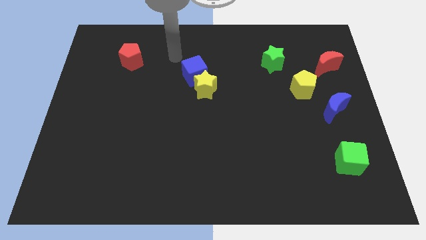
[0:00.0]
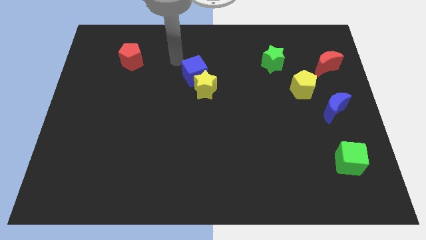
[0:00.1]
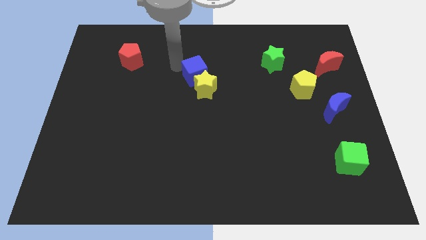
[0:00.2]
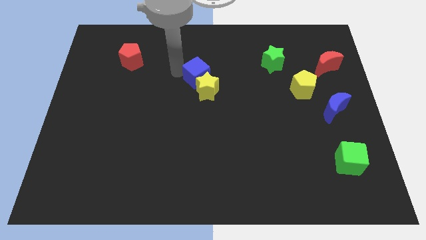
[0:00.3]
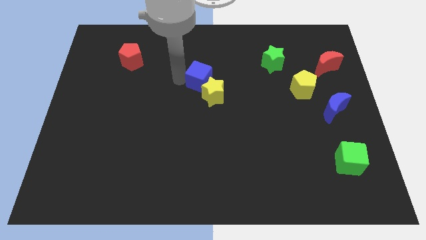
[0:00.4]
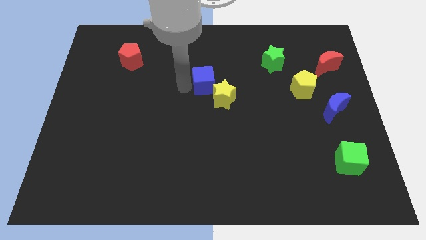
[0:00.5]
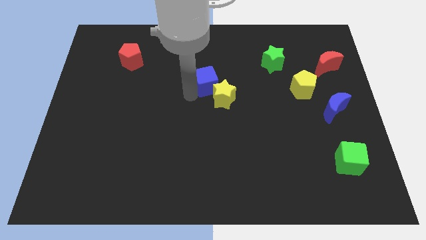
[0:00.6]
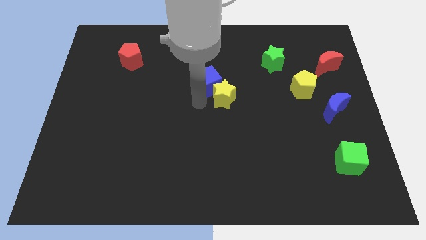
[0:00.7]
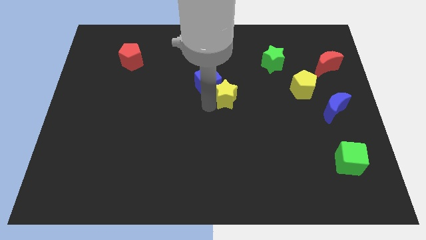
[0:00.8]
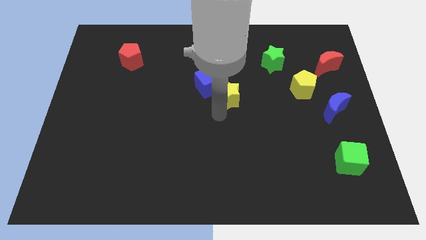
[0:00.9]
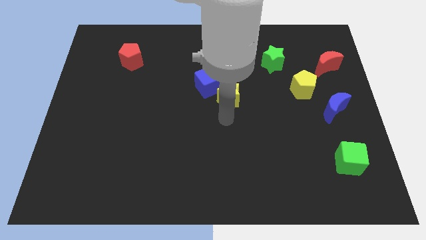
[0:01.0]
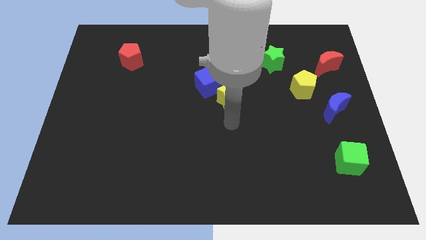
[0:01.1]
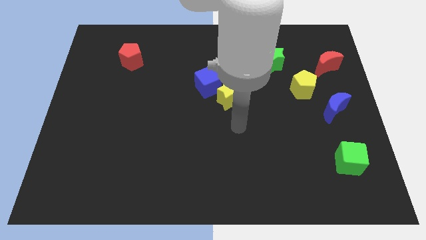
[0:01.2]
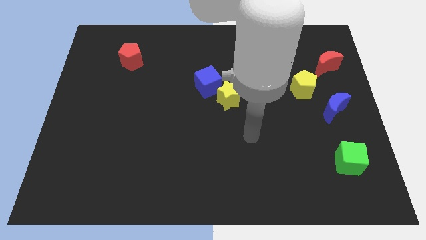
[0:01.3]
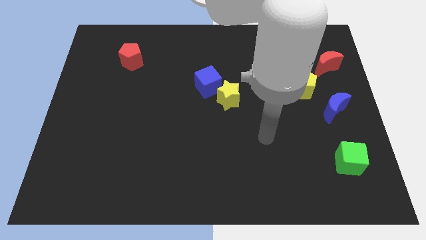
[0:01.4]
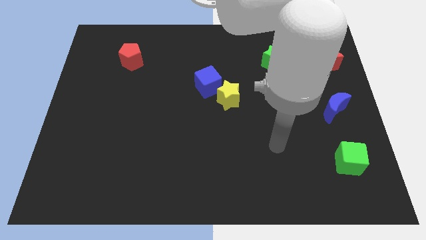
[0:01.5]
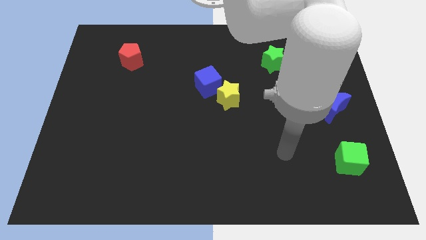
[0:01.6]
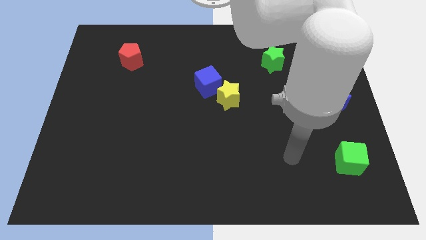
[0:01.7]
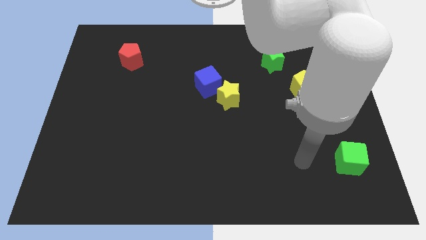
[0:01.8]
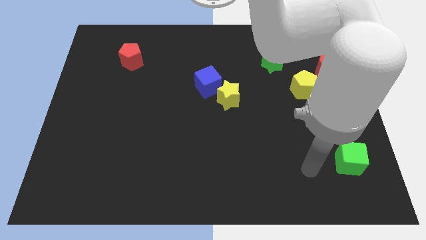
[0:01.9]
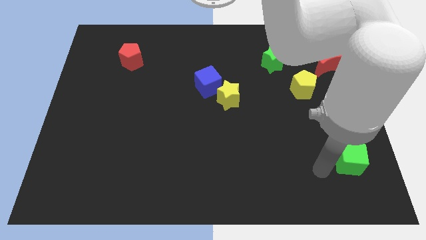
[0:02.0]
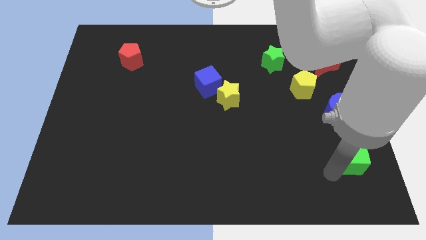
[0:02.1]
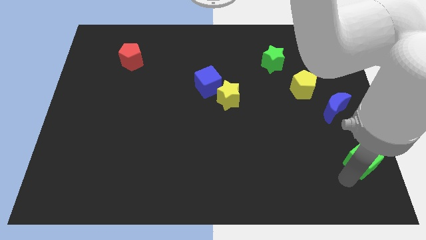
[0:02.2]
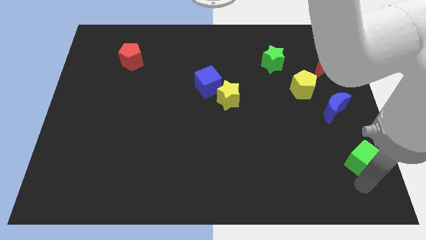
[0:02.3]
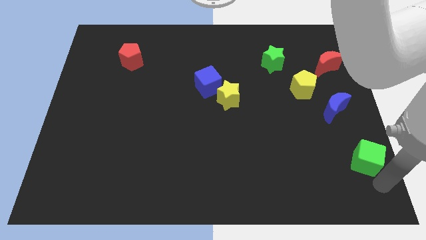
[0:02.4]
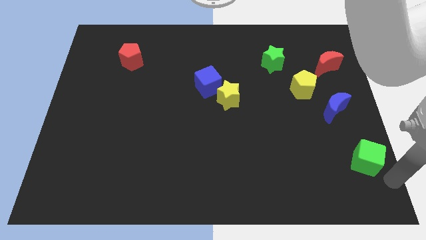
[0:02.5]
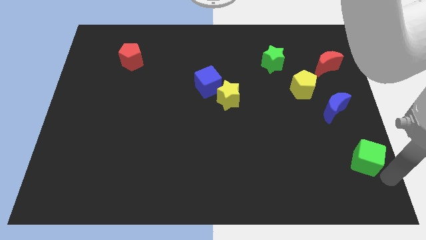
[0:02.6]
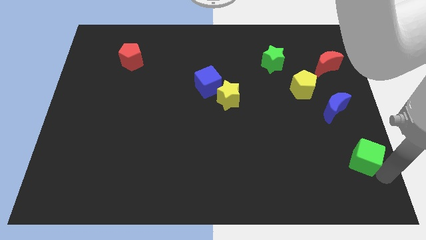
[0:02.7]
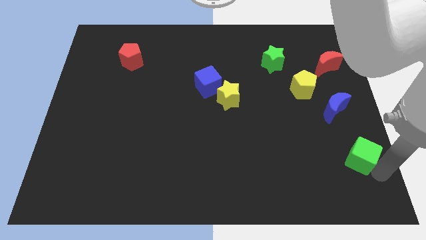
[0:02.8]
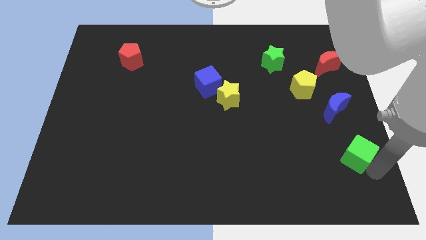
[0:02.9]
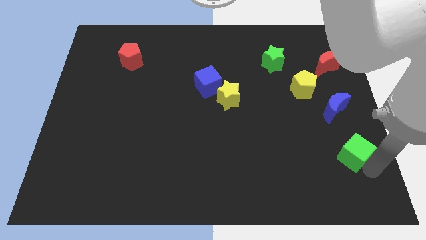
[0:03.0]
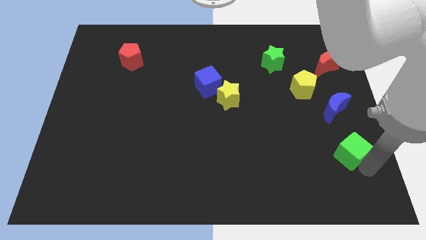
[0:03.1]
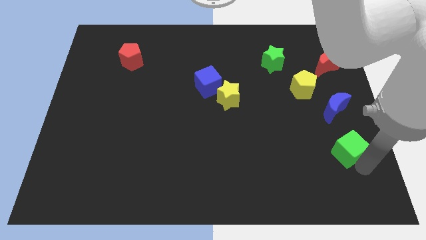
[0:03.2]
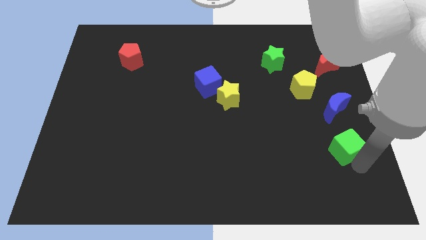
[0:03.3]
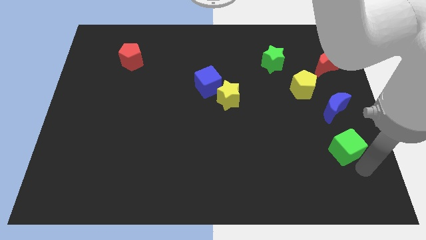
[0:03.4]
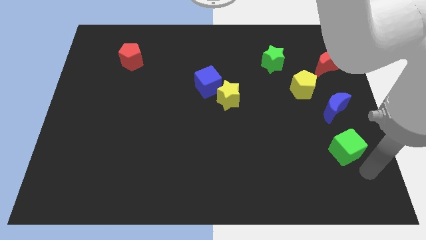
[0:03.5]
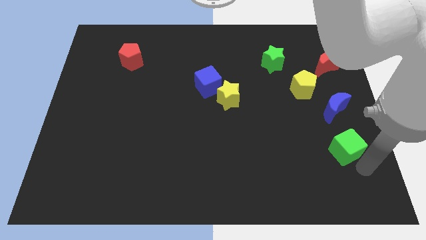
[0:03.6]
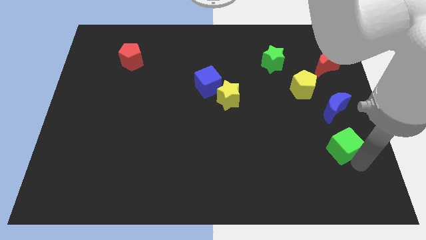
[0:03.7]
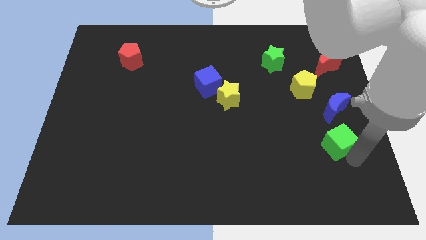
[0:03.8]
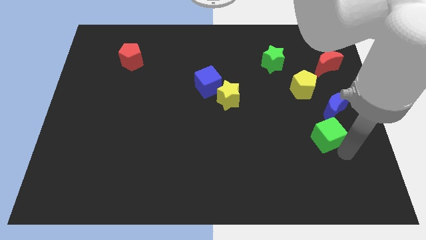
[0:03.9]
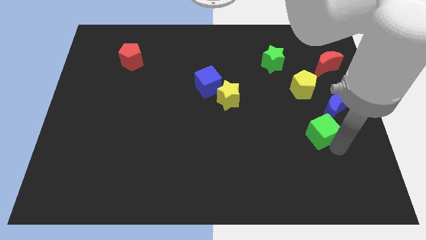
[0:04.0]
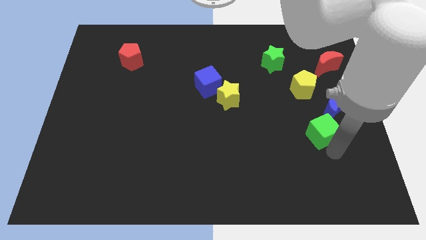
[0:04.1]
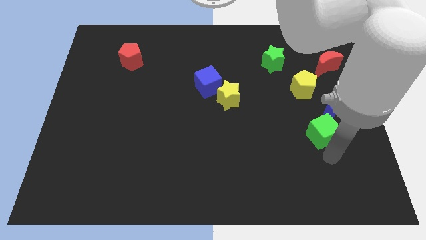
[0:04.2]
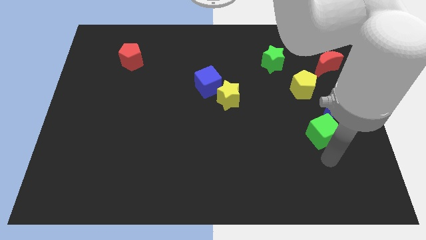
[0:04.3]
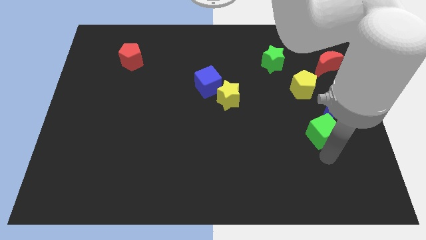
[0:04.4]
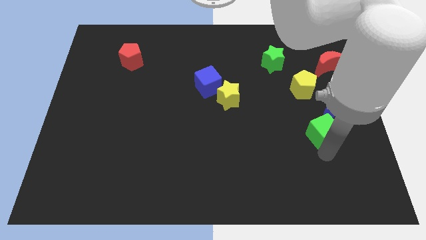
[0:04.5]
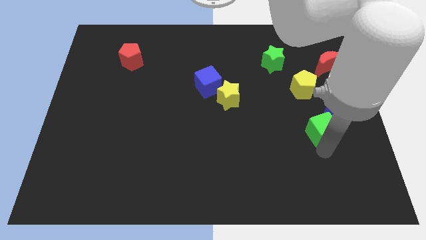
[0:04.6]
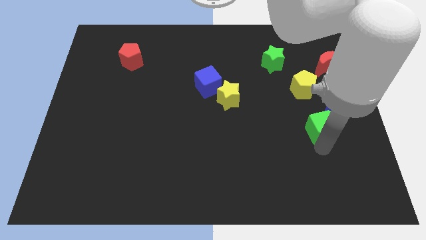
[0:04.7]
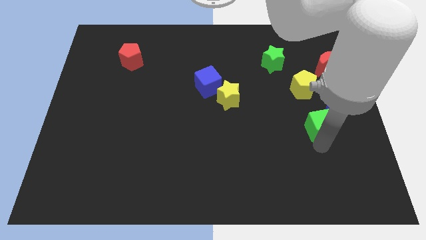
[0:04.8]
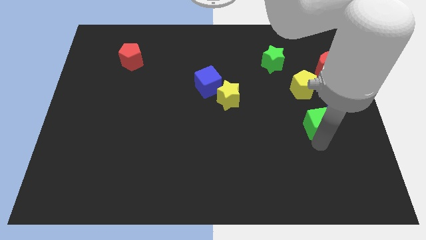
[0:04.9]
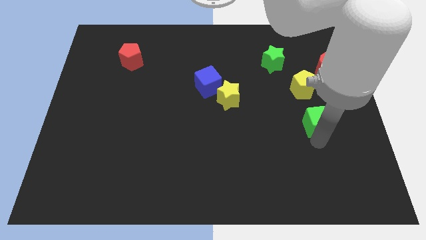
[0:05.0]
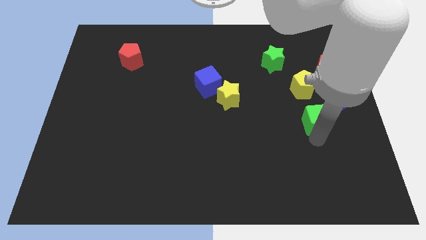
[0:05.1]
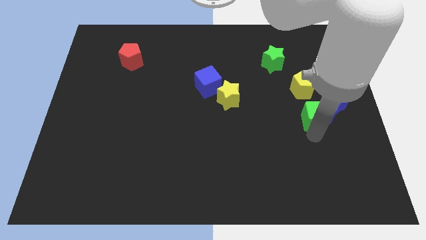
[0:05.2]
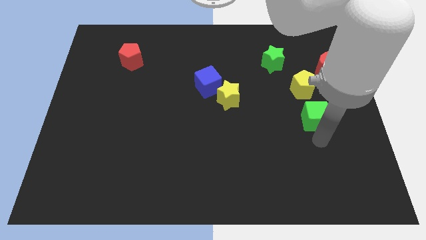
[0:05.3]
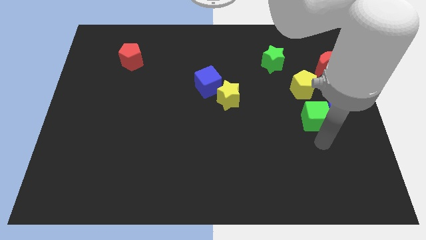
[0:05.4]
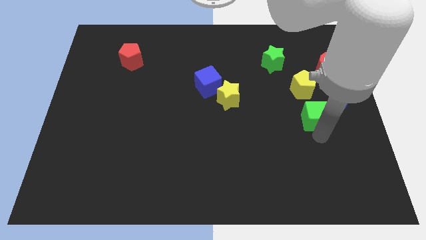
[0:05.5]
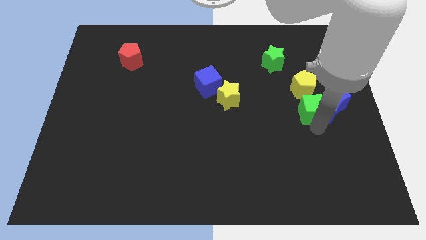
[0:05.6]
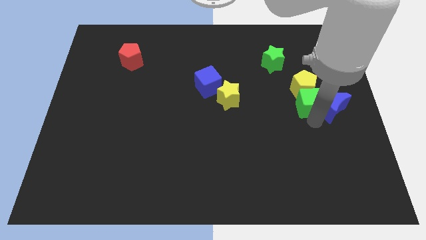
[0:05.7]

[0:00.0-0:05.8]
slide the green cube to the yellow pentagon

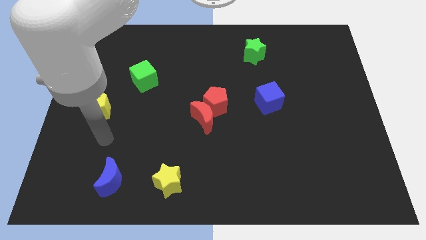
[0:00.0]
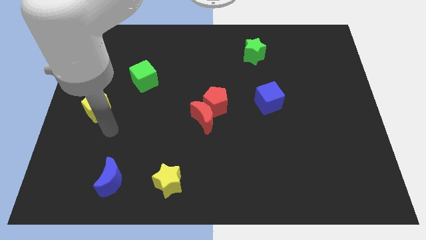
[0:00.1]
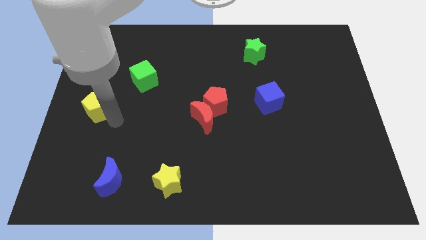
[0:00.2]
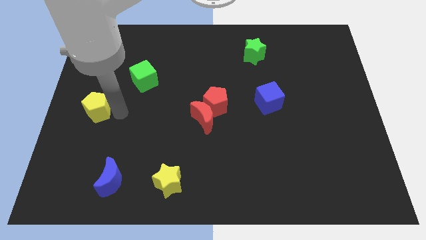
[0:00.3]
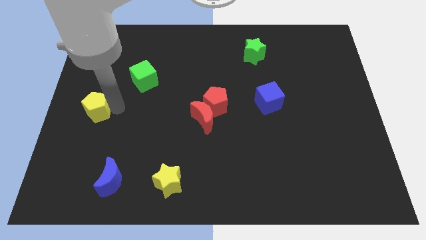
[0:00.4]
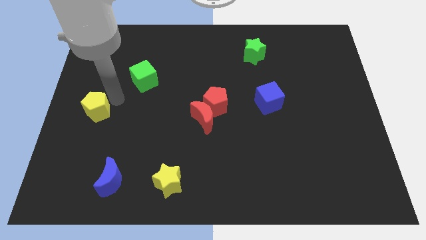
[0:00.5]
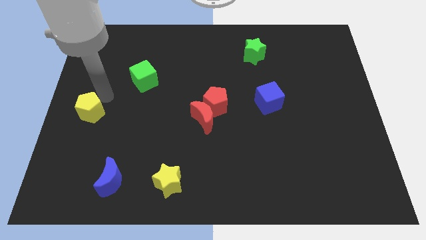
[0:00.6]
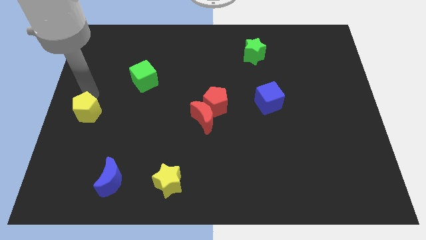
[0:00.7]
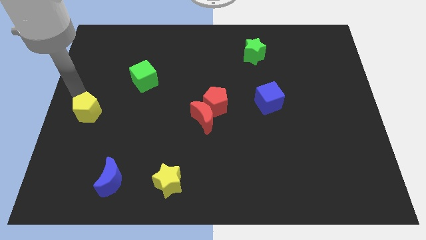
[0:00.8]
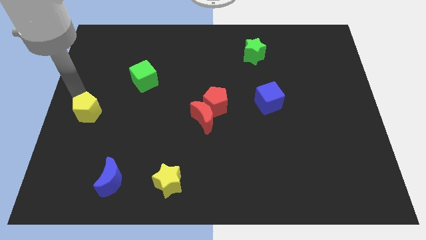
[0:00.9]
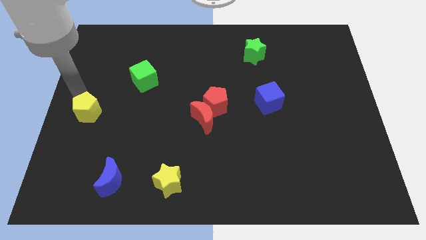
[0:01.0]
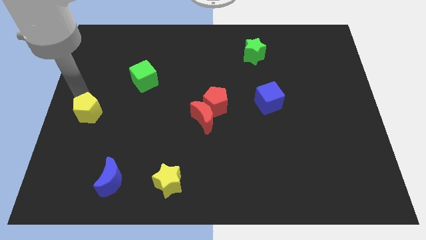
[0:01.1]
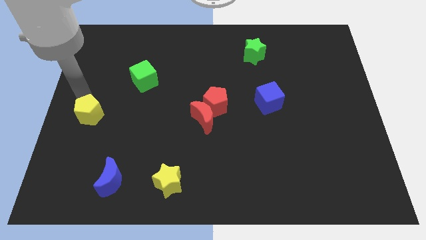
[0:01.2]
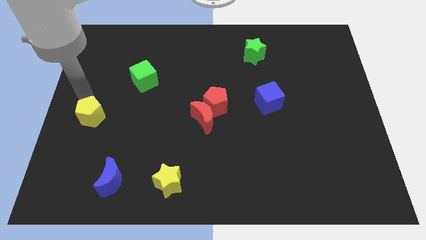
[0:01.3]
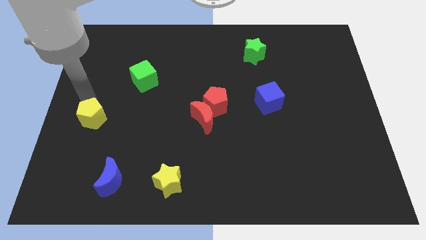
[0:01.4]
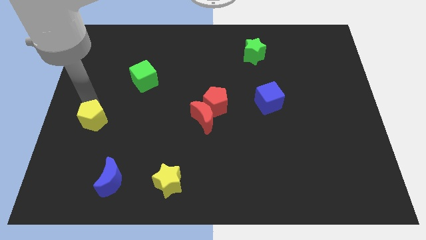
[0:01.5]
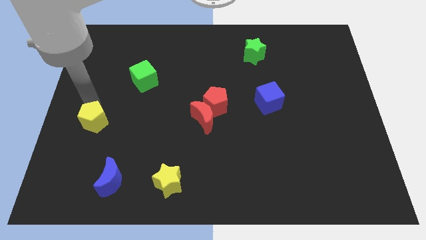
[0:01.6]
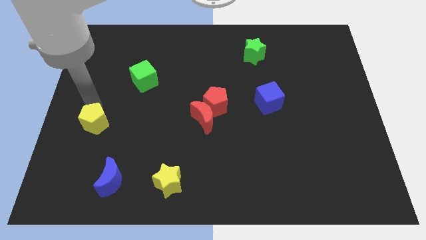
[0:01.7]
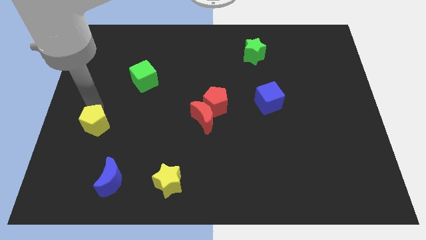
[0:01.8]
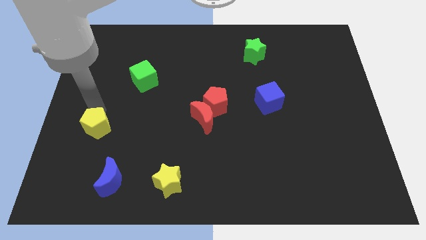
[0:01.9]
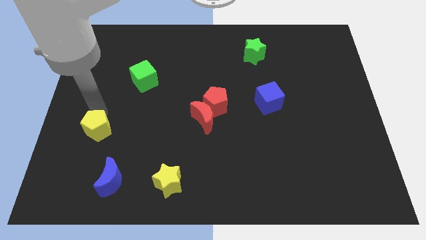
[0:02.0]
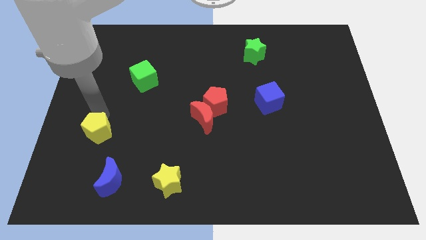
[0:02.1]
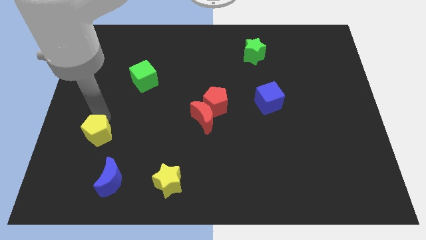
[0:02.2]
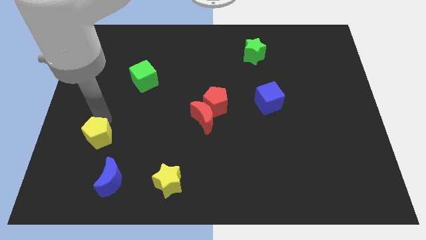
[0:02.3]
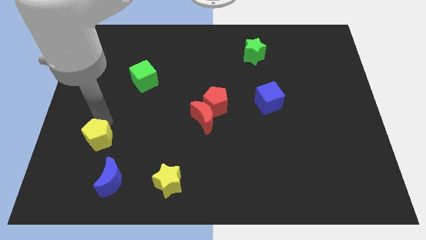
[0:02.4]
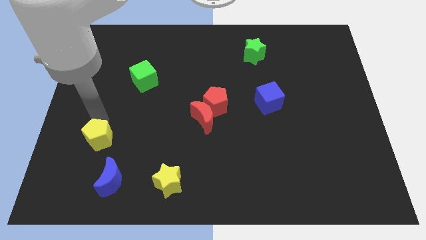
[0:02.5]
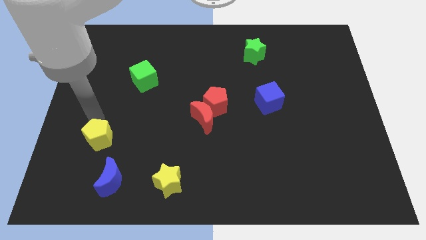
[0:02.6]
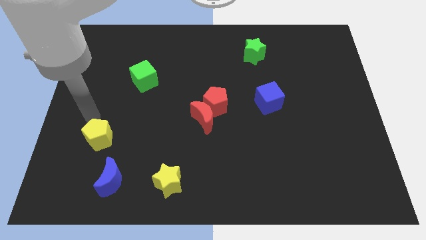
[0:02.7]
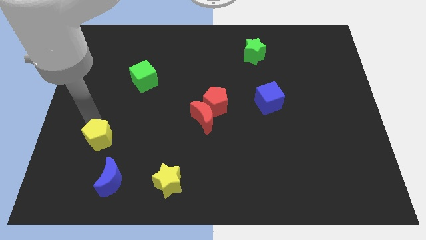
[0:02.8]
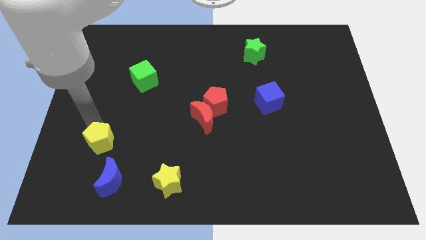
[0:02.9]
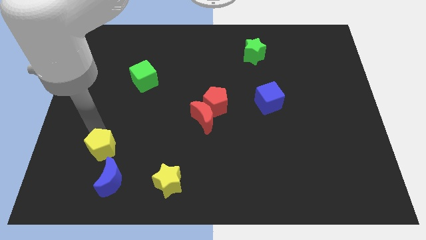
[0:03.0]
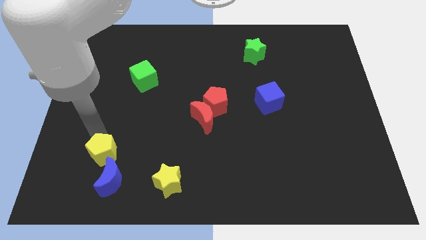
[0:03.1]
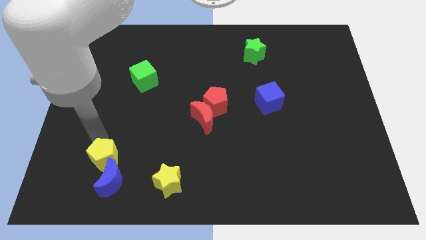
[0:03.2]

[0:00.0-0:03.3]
push the yellow pentagon towards the blue moon
